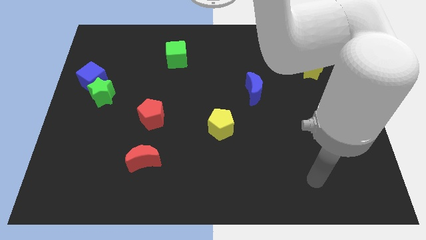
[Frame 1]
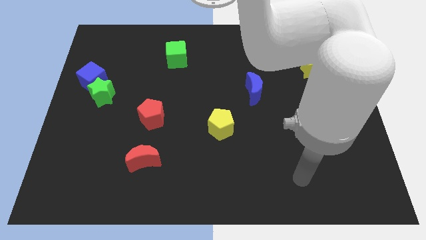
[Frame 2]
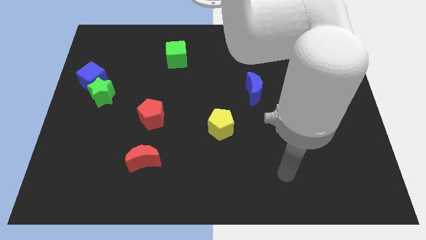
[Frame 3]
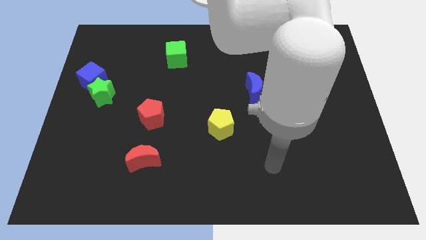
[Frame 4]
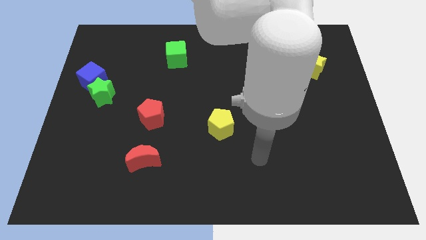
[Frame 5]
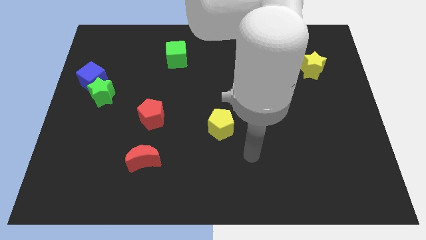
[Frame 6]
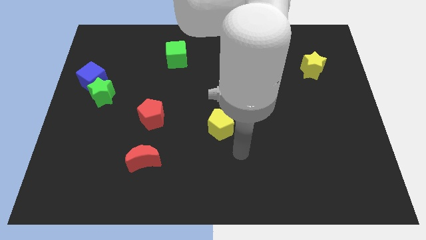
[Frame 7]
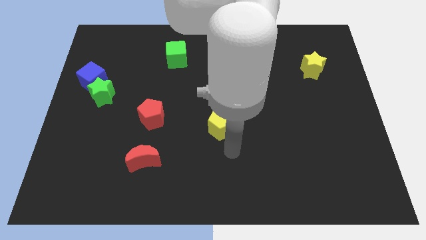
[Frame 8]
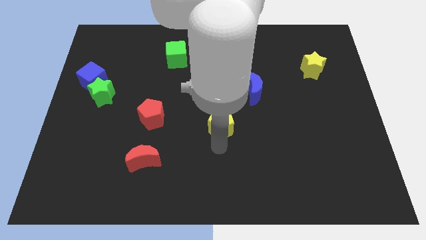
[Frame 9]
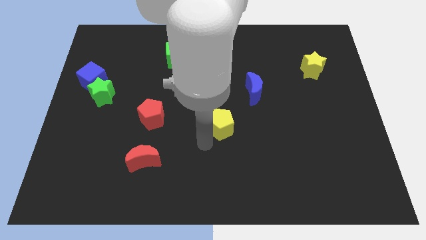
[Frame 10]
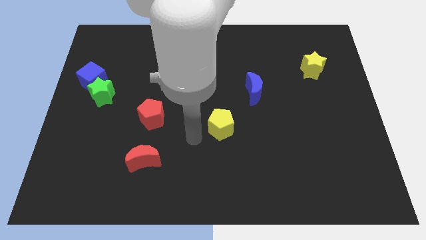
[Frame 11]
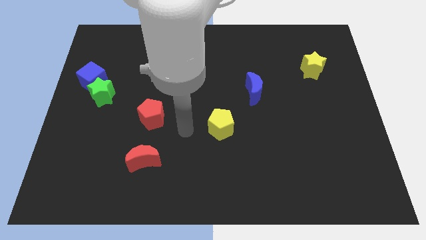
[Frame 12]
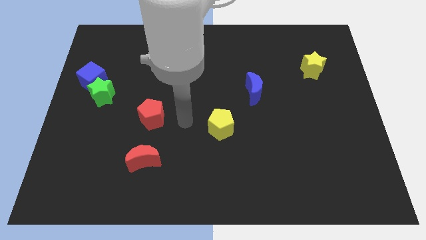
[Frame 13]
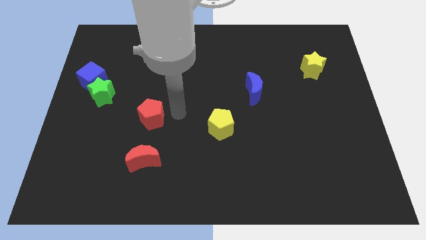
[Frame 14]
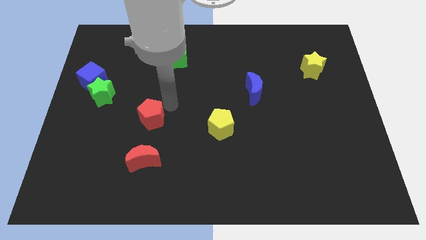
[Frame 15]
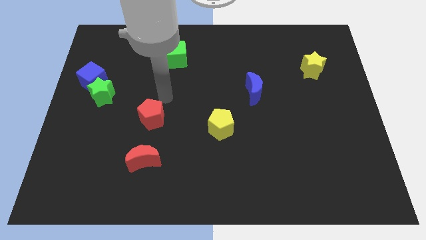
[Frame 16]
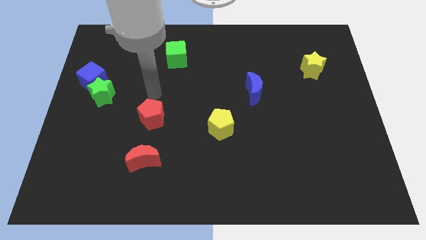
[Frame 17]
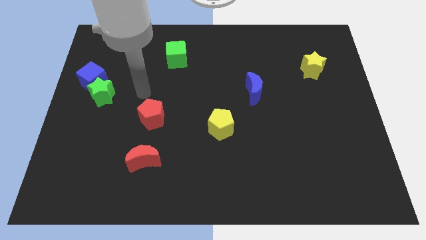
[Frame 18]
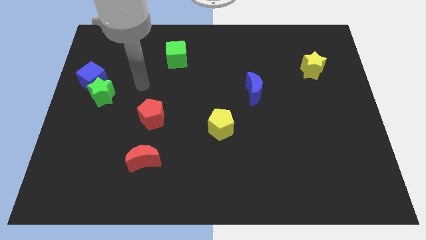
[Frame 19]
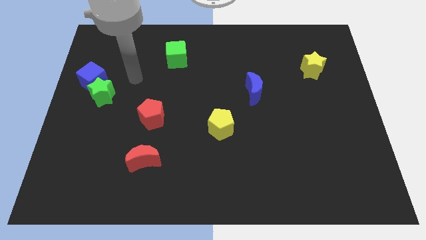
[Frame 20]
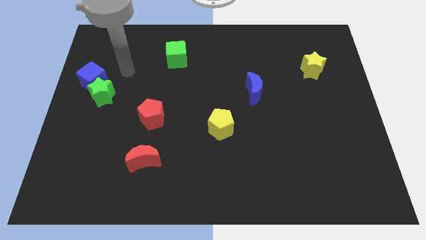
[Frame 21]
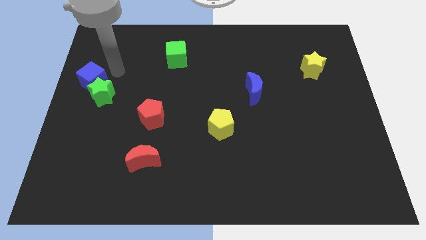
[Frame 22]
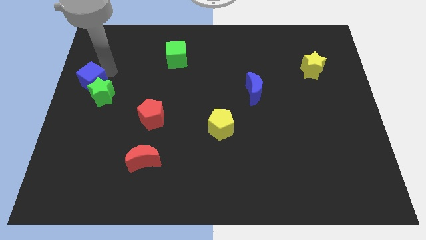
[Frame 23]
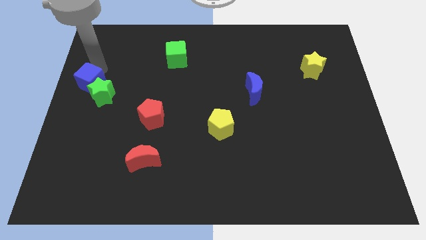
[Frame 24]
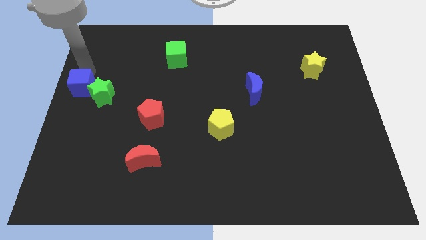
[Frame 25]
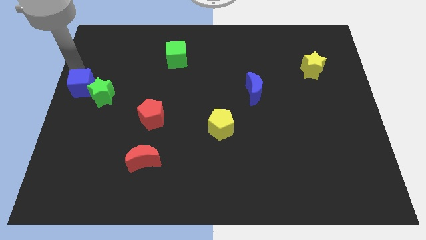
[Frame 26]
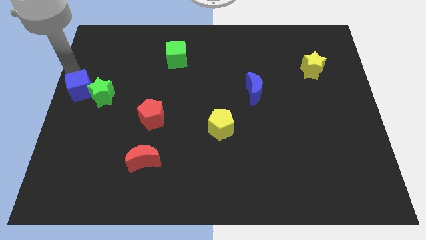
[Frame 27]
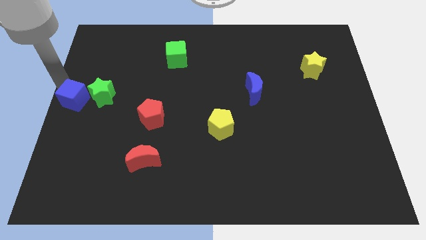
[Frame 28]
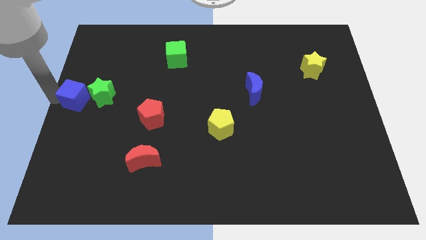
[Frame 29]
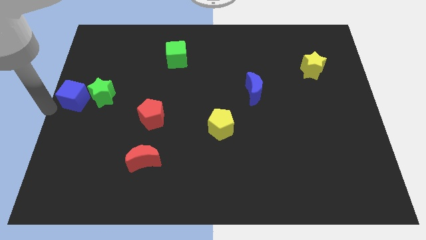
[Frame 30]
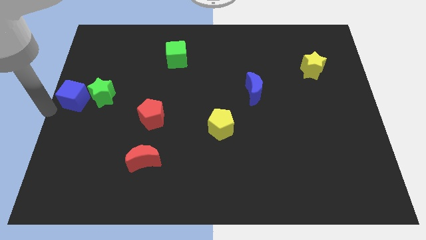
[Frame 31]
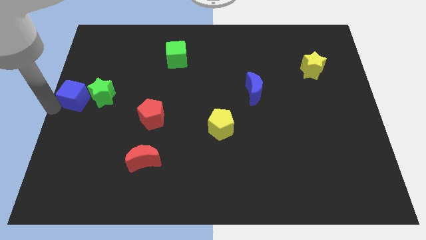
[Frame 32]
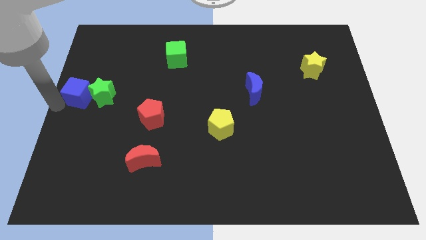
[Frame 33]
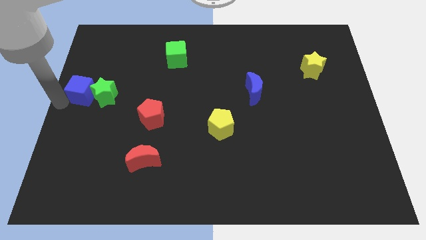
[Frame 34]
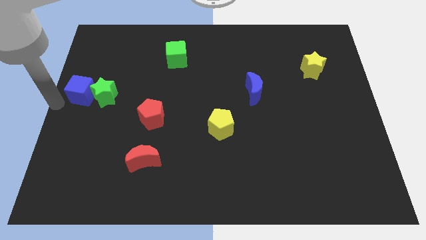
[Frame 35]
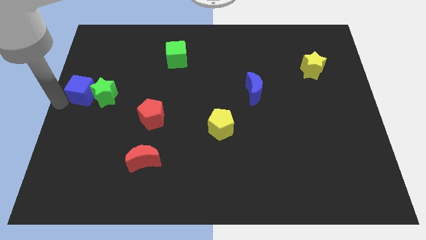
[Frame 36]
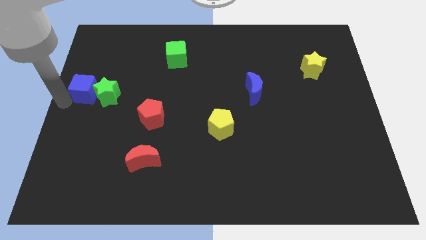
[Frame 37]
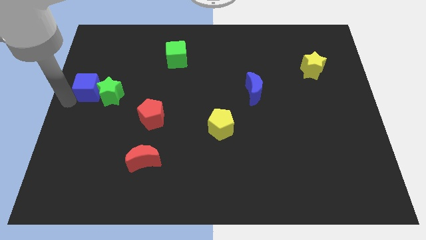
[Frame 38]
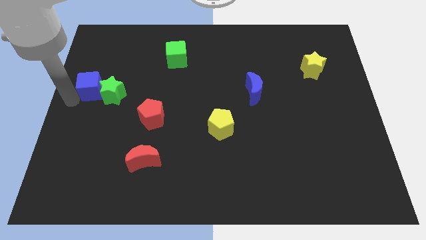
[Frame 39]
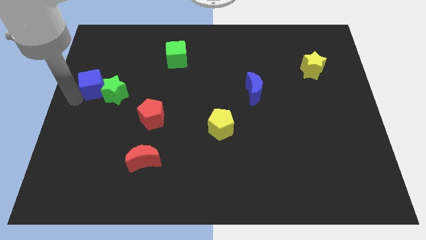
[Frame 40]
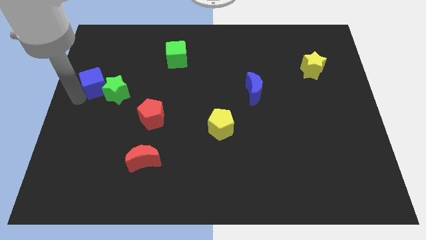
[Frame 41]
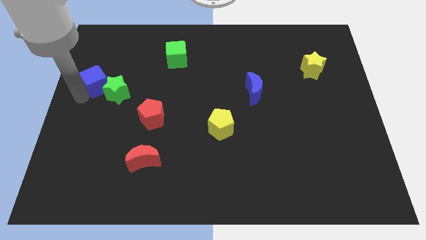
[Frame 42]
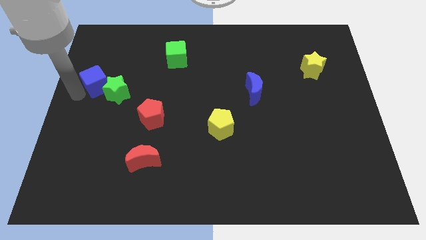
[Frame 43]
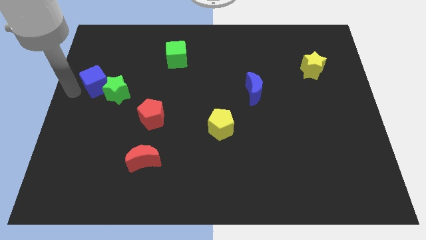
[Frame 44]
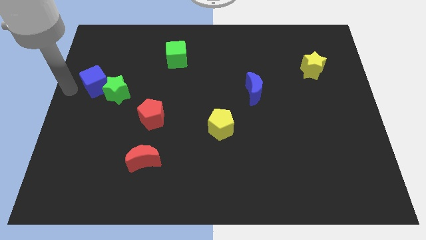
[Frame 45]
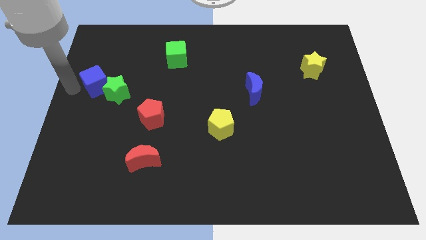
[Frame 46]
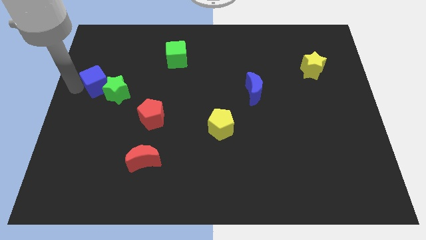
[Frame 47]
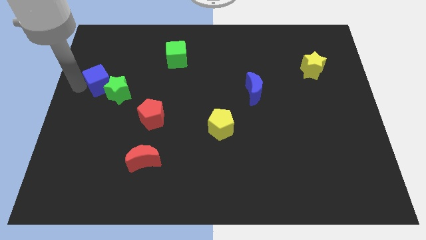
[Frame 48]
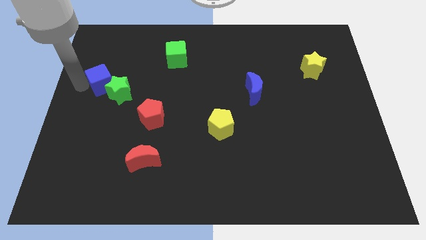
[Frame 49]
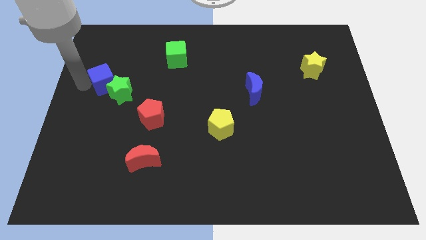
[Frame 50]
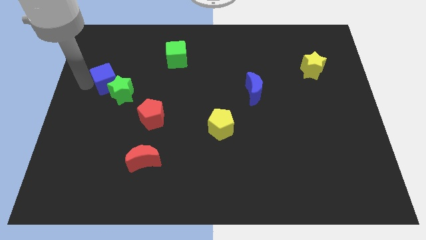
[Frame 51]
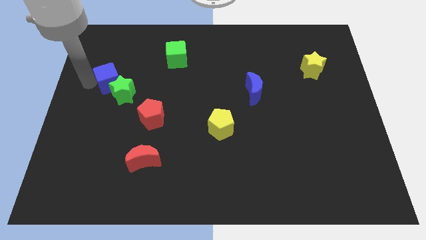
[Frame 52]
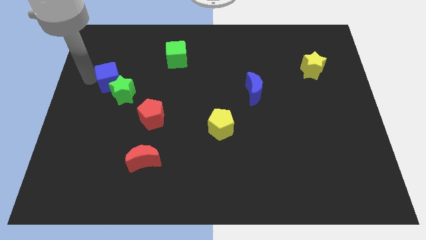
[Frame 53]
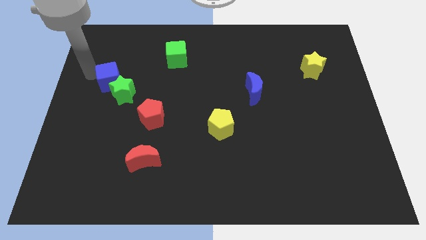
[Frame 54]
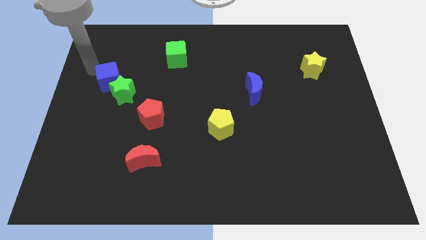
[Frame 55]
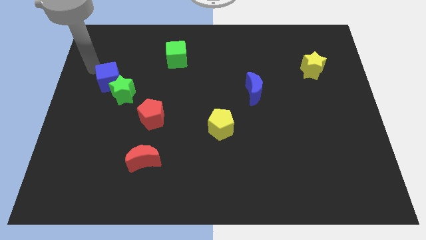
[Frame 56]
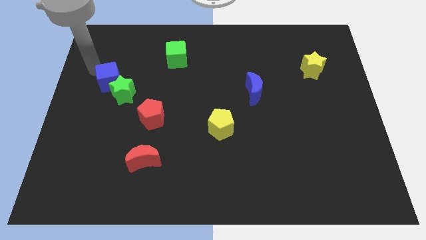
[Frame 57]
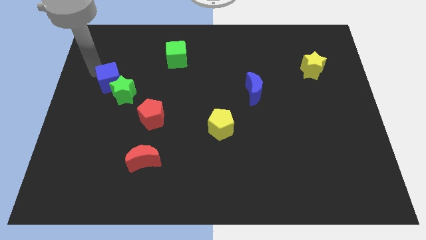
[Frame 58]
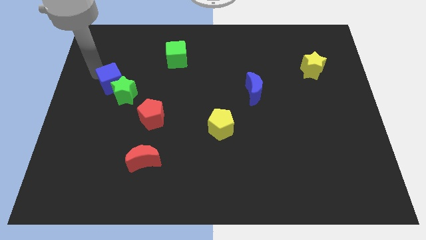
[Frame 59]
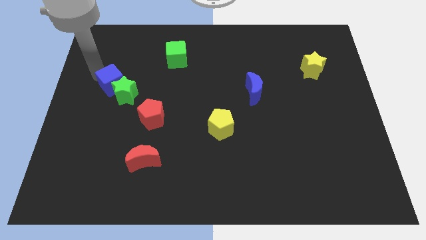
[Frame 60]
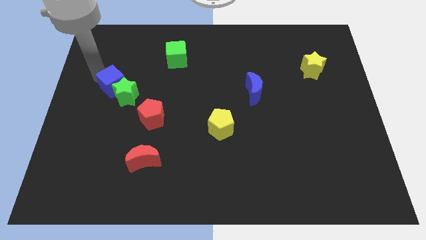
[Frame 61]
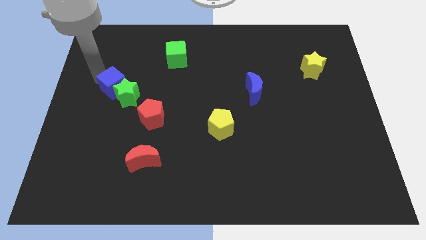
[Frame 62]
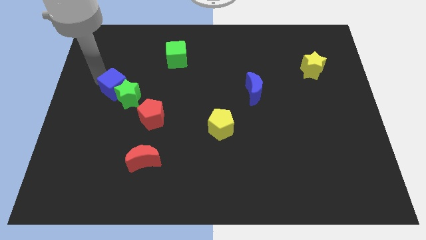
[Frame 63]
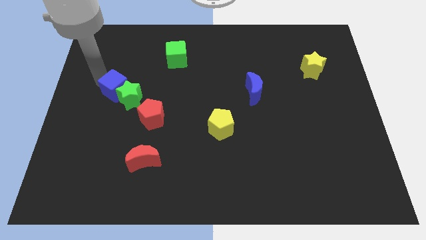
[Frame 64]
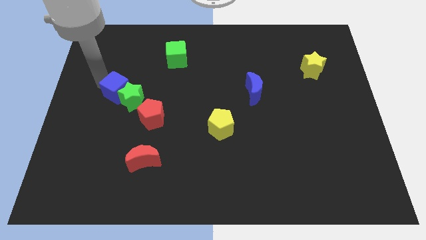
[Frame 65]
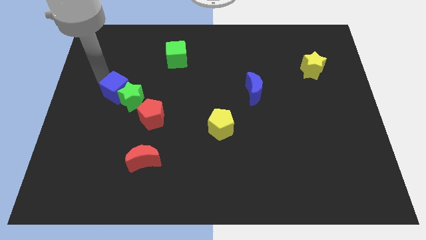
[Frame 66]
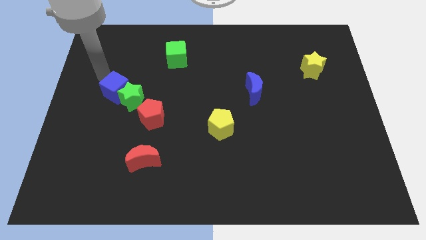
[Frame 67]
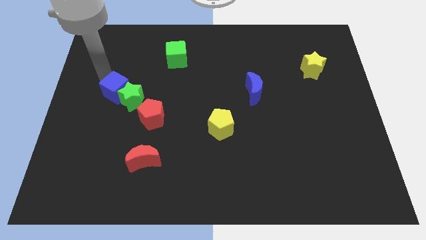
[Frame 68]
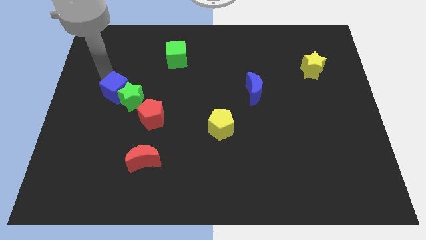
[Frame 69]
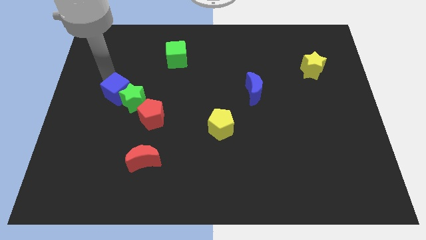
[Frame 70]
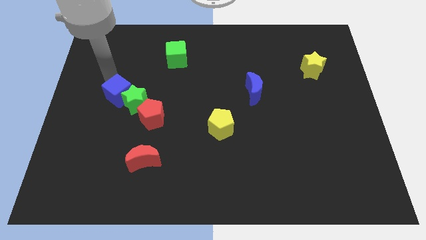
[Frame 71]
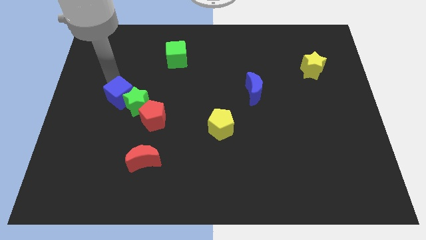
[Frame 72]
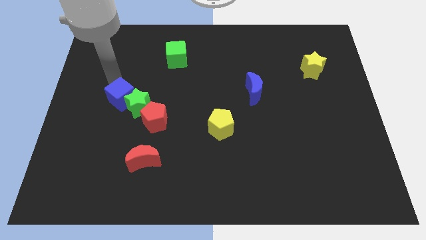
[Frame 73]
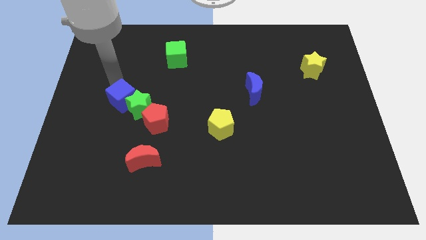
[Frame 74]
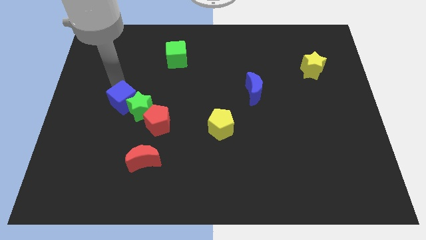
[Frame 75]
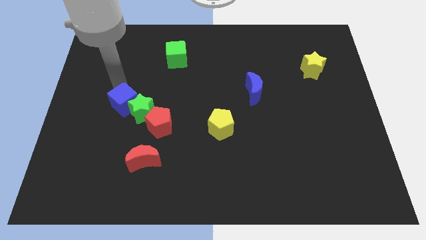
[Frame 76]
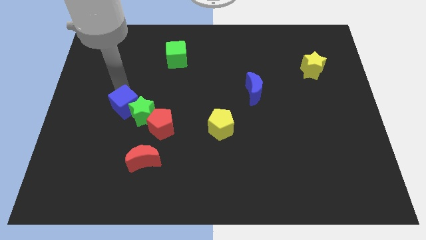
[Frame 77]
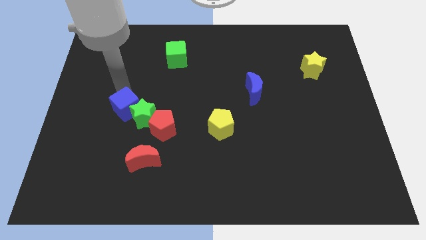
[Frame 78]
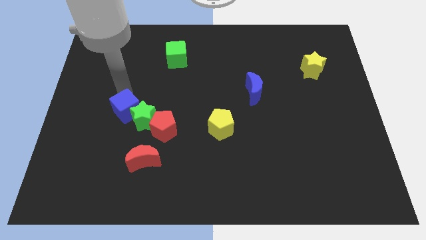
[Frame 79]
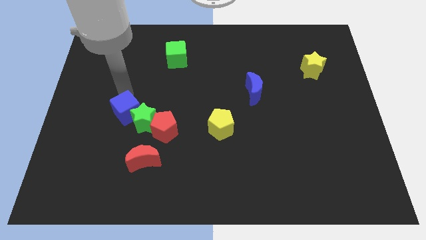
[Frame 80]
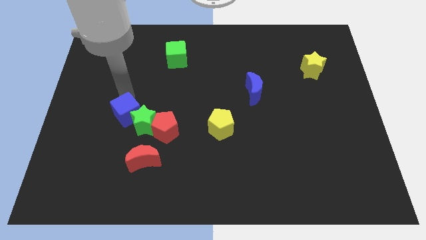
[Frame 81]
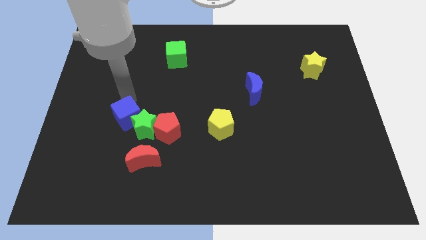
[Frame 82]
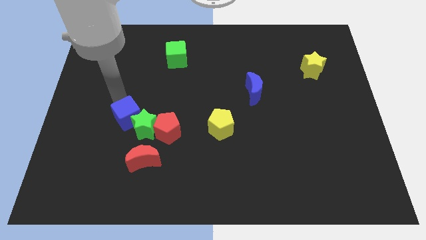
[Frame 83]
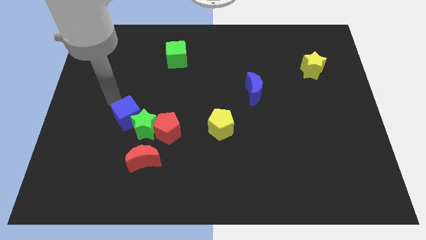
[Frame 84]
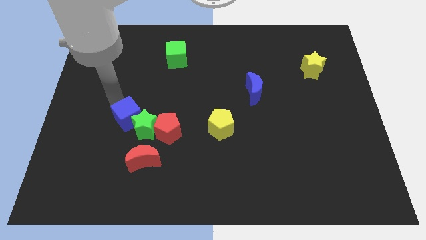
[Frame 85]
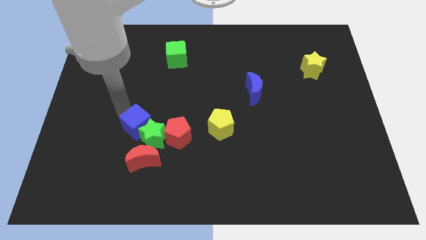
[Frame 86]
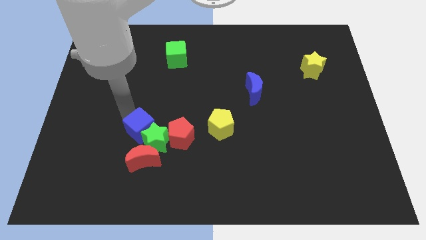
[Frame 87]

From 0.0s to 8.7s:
slide the blue cube downwards and to the right
